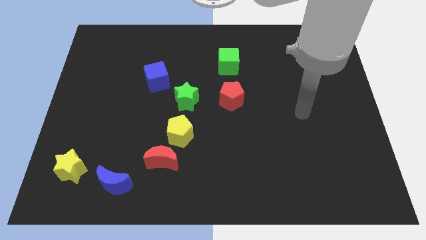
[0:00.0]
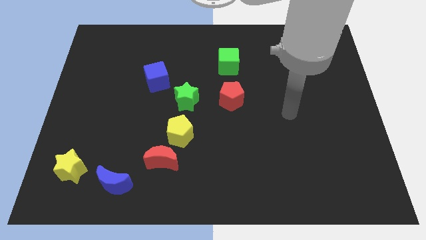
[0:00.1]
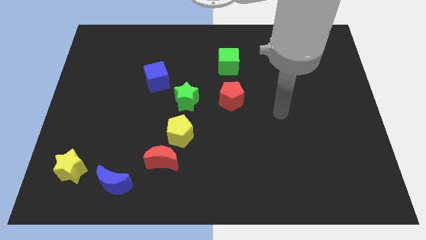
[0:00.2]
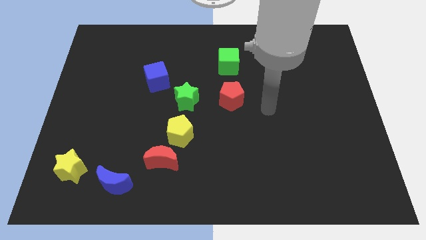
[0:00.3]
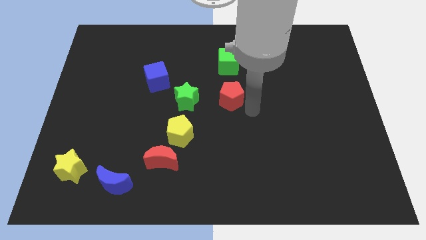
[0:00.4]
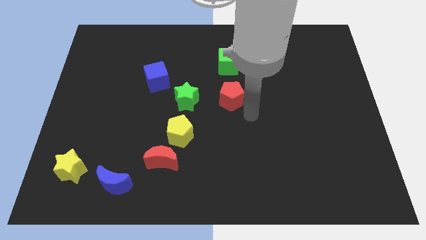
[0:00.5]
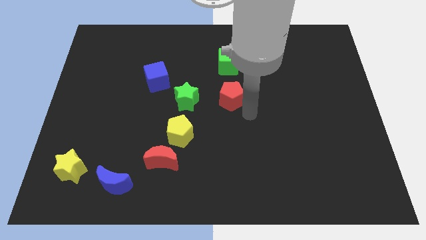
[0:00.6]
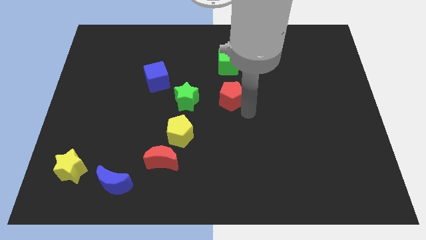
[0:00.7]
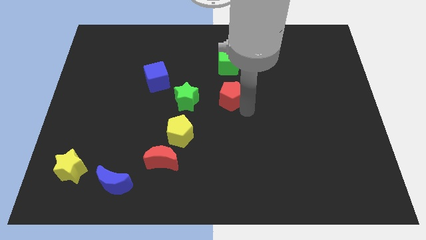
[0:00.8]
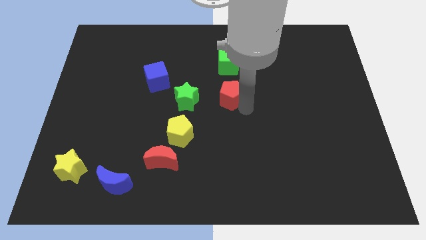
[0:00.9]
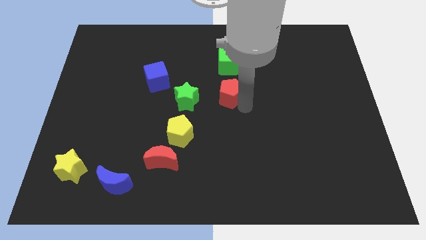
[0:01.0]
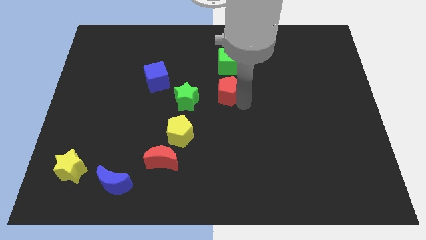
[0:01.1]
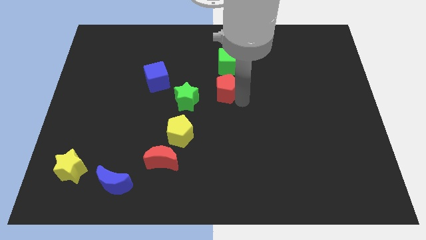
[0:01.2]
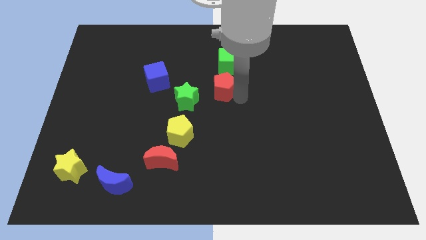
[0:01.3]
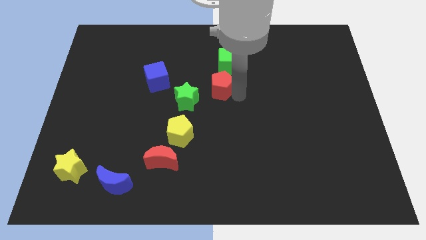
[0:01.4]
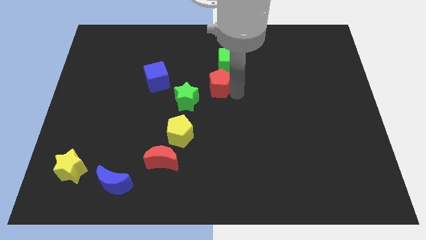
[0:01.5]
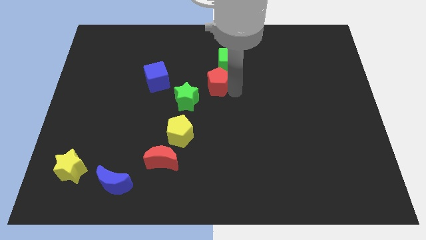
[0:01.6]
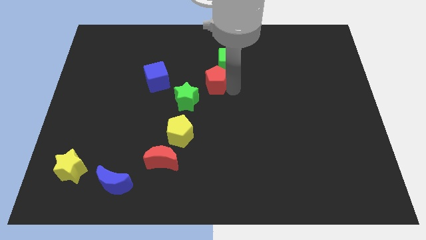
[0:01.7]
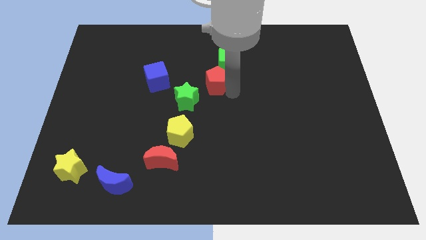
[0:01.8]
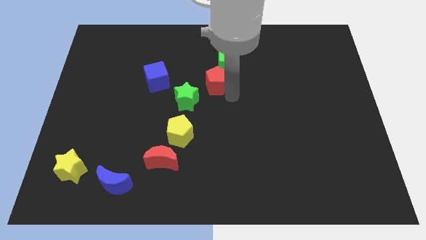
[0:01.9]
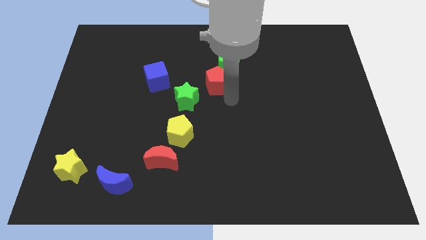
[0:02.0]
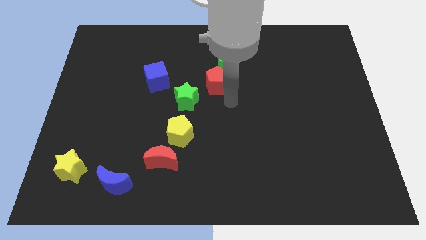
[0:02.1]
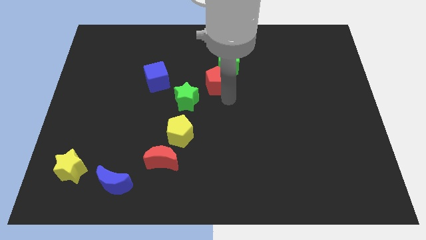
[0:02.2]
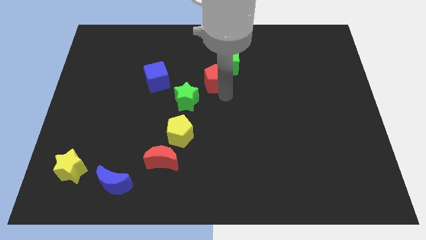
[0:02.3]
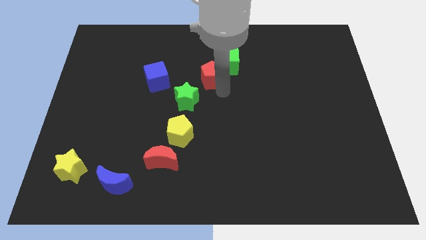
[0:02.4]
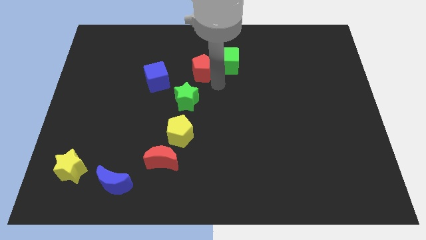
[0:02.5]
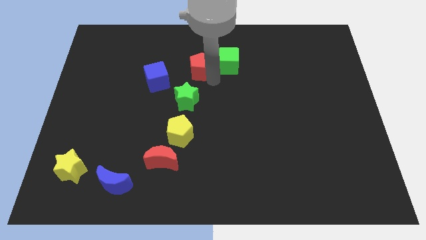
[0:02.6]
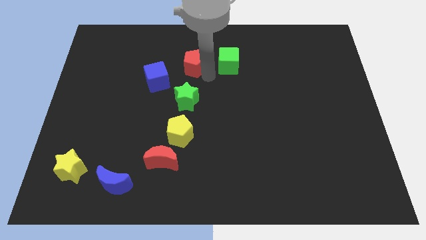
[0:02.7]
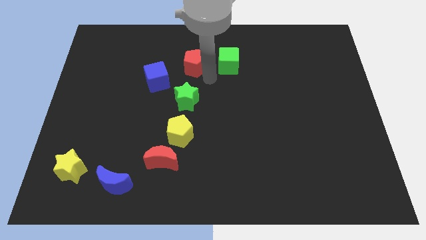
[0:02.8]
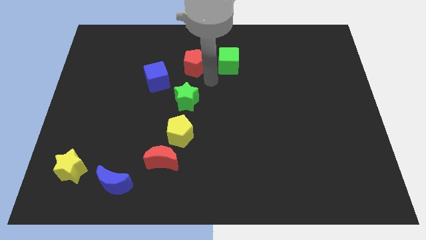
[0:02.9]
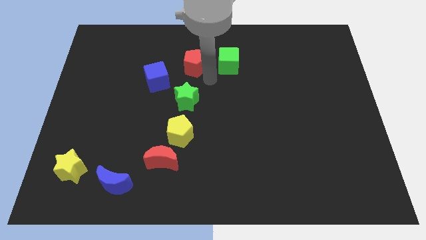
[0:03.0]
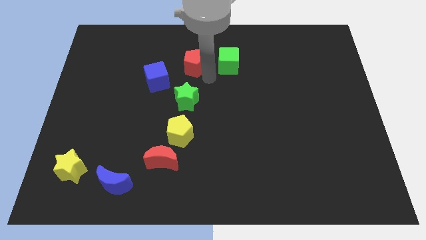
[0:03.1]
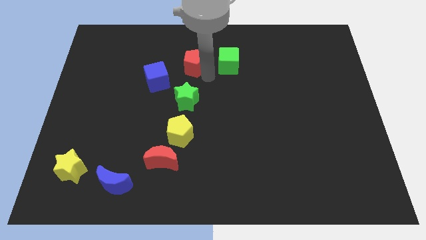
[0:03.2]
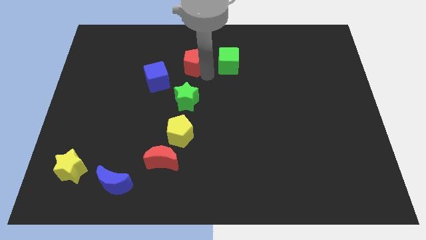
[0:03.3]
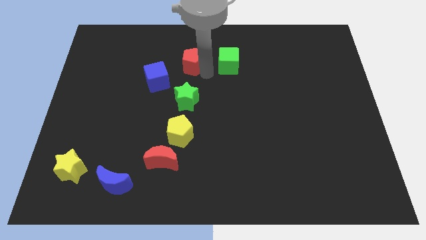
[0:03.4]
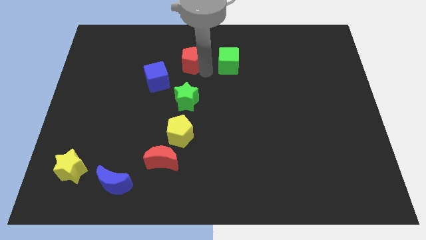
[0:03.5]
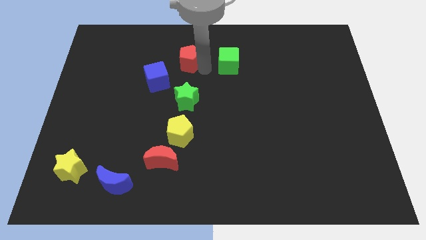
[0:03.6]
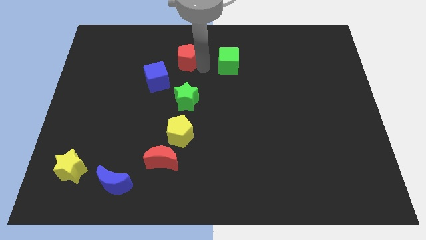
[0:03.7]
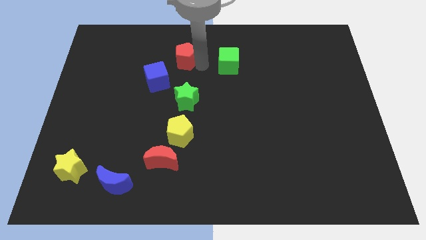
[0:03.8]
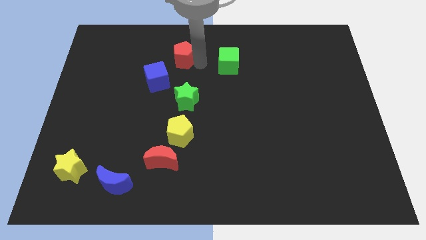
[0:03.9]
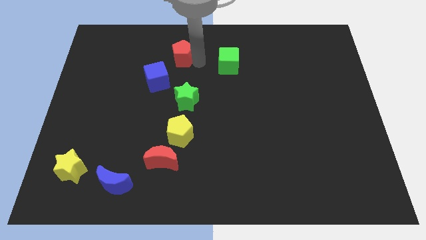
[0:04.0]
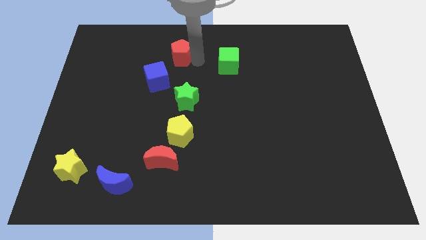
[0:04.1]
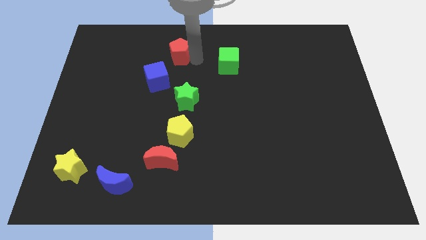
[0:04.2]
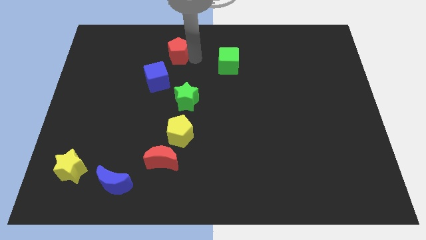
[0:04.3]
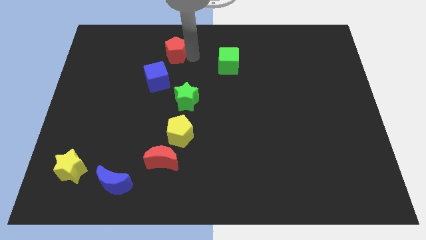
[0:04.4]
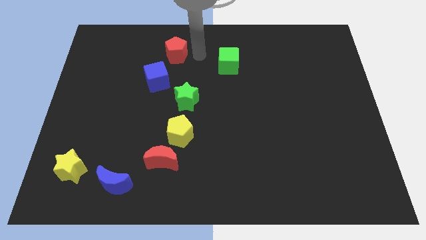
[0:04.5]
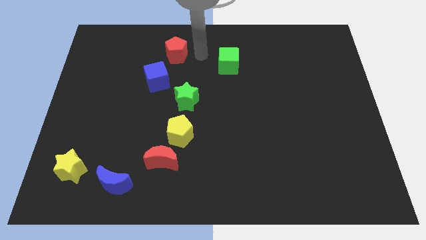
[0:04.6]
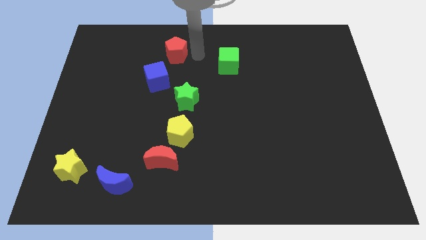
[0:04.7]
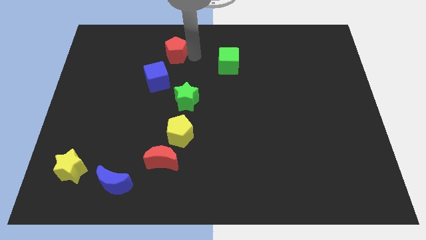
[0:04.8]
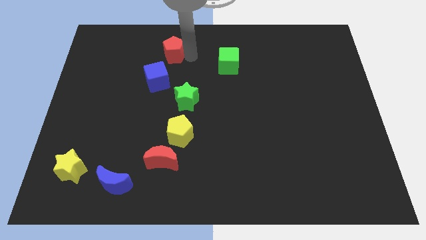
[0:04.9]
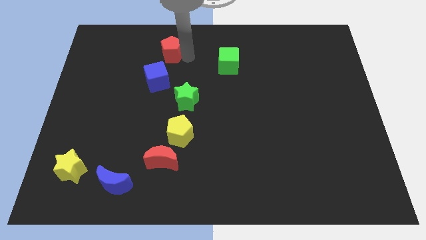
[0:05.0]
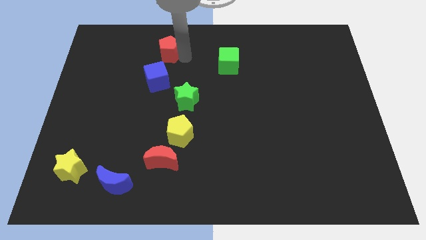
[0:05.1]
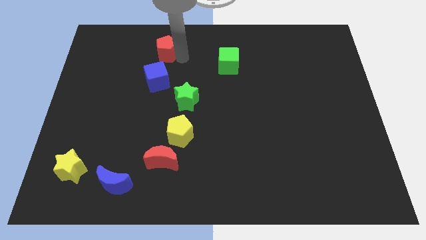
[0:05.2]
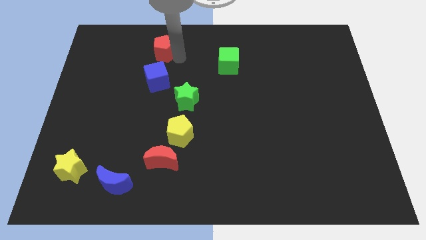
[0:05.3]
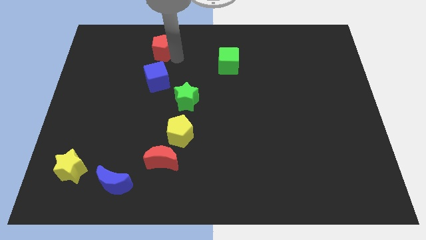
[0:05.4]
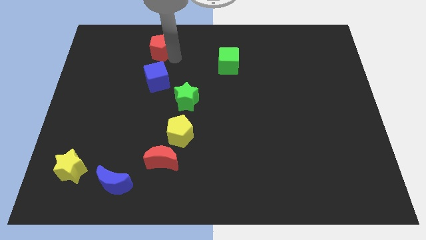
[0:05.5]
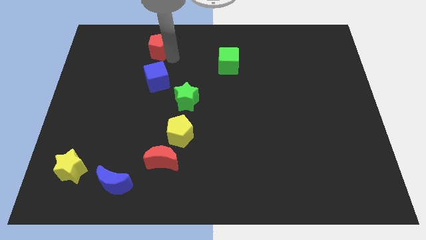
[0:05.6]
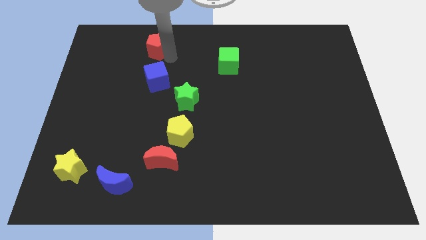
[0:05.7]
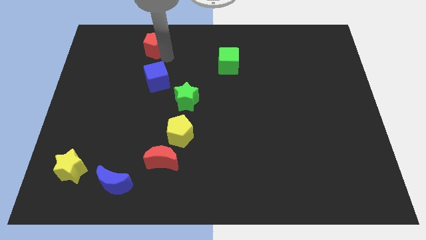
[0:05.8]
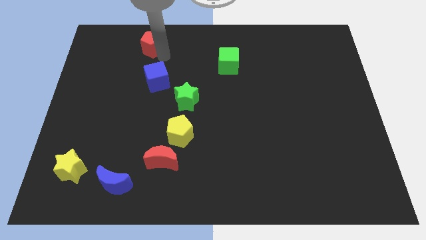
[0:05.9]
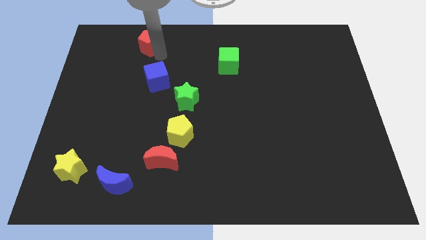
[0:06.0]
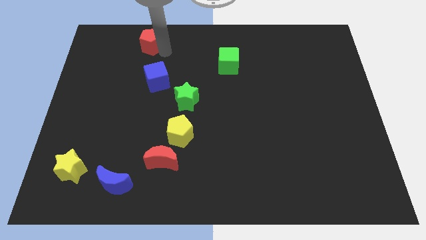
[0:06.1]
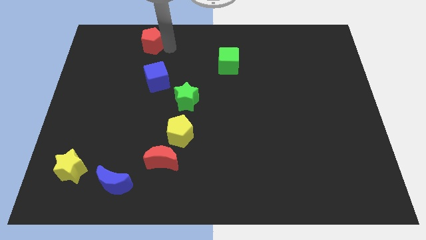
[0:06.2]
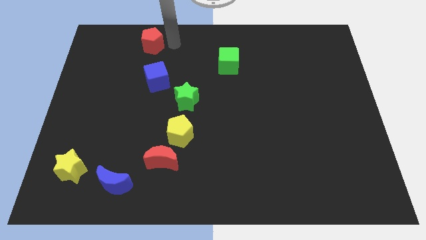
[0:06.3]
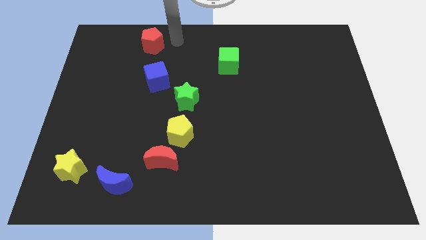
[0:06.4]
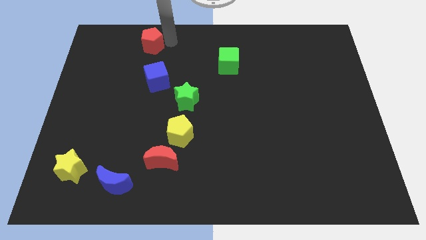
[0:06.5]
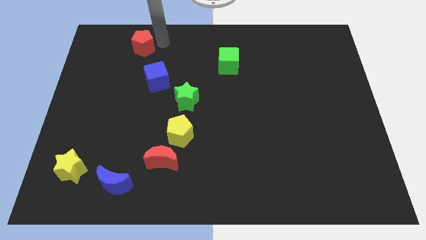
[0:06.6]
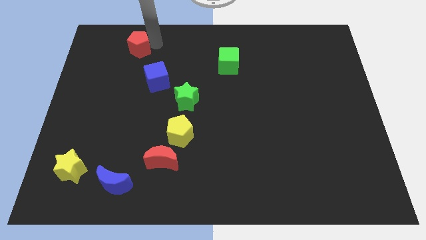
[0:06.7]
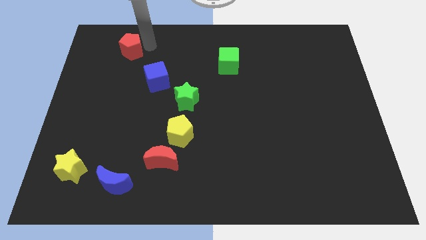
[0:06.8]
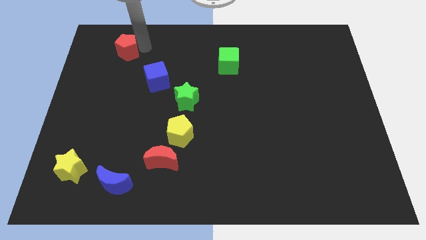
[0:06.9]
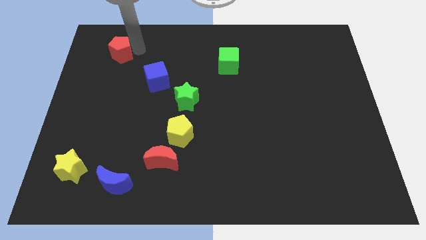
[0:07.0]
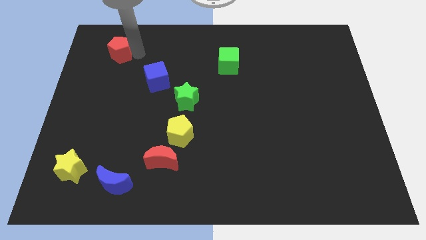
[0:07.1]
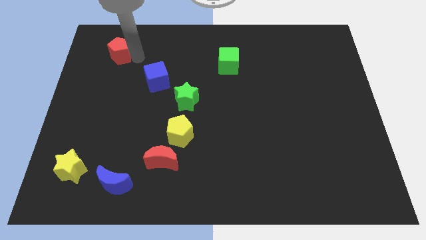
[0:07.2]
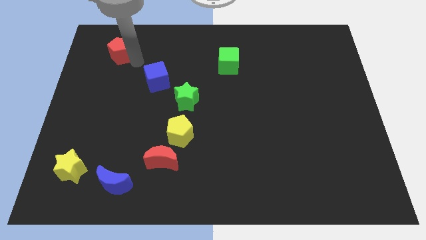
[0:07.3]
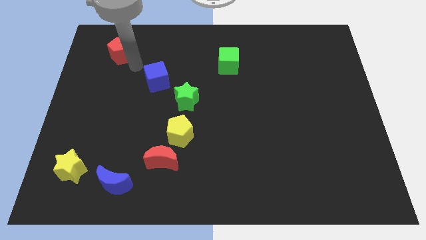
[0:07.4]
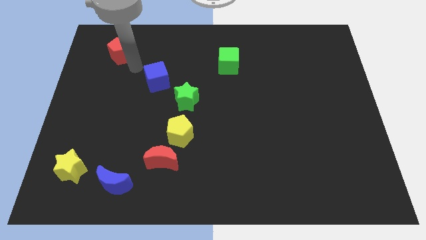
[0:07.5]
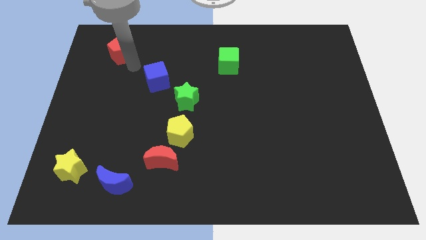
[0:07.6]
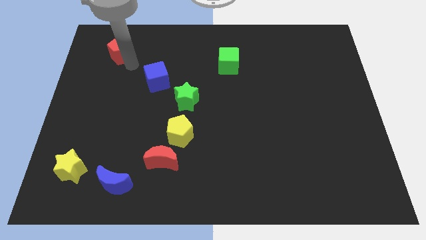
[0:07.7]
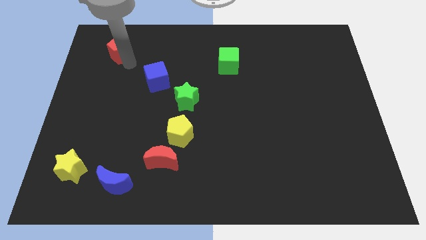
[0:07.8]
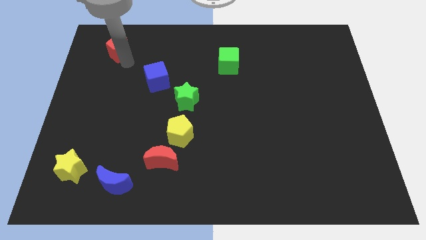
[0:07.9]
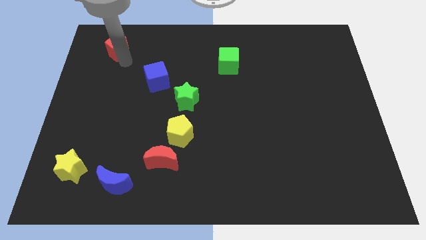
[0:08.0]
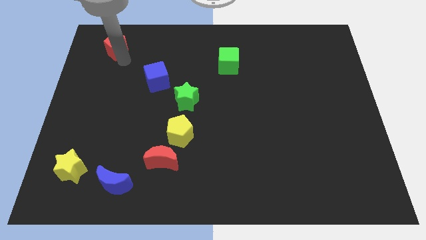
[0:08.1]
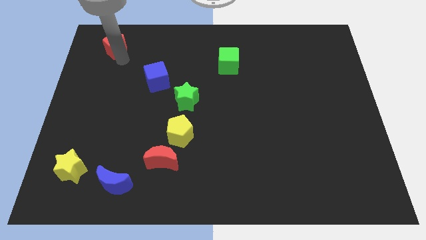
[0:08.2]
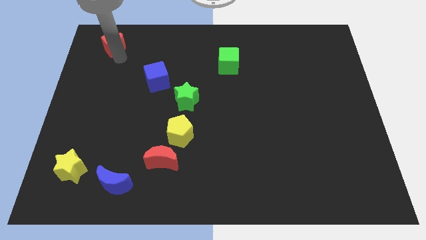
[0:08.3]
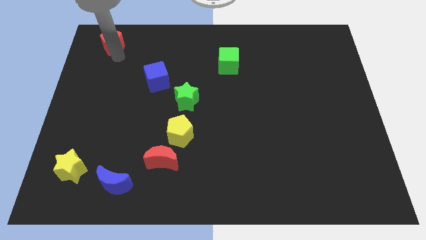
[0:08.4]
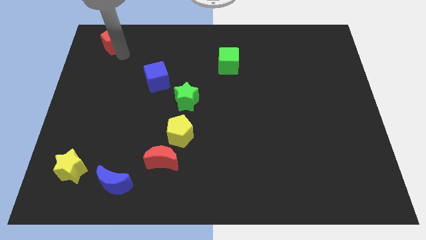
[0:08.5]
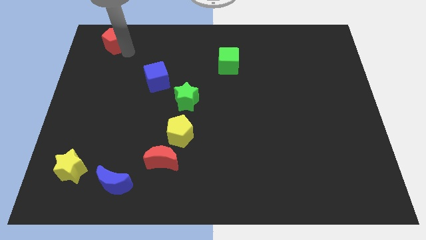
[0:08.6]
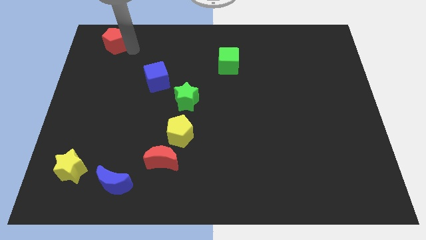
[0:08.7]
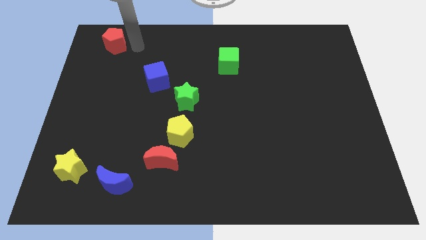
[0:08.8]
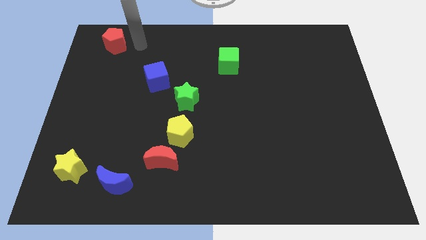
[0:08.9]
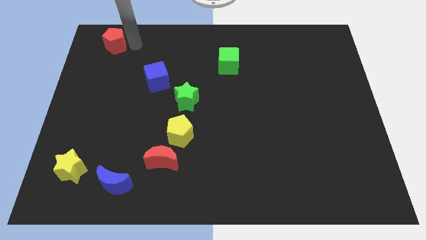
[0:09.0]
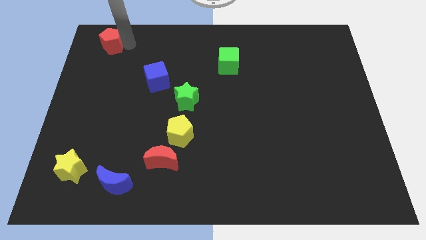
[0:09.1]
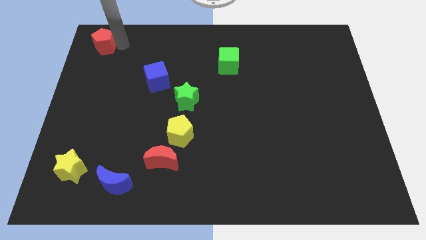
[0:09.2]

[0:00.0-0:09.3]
slide the red pentagon to the top left
